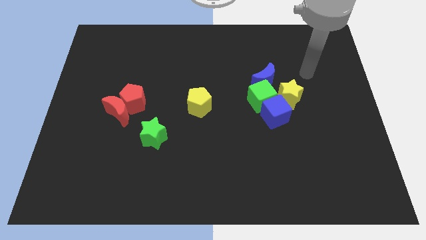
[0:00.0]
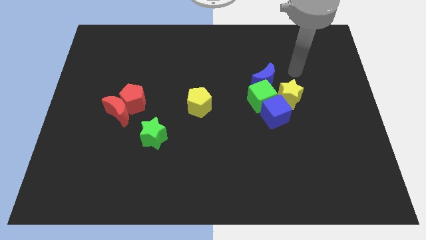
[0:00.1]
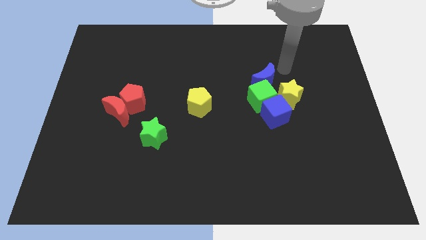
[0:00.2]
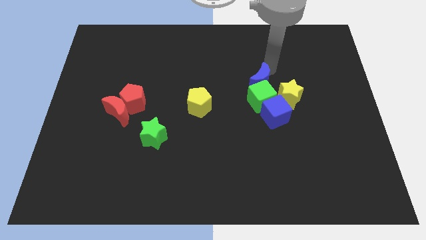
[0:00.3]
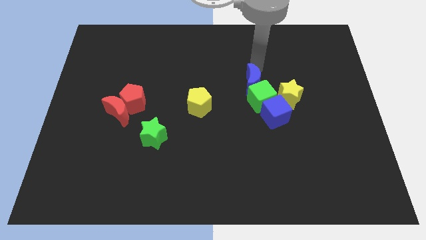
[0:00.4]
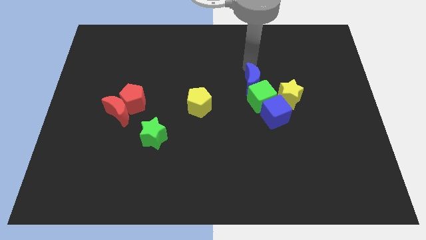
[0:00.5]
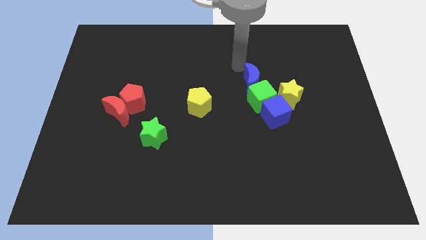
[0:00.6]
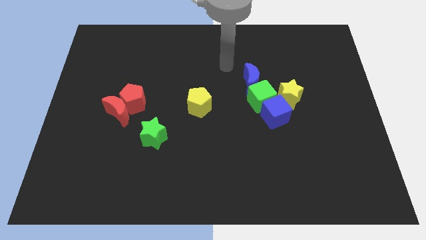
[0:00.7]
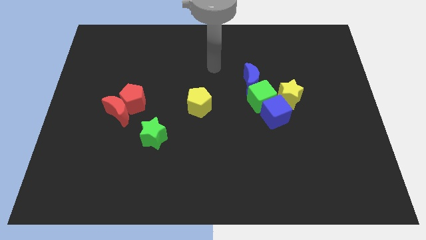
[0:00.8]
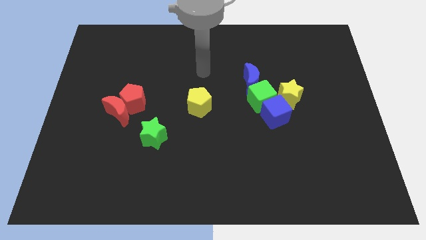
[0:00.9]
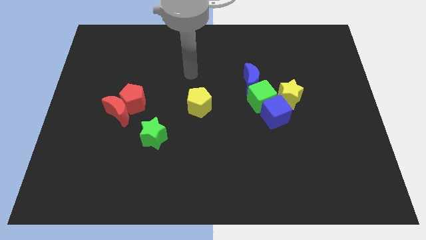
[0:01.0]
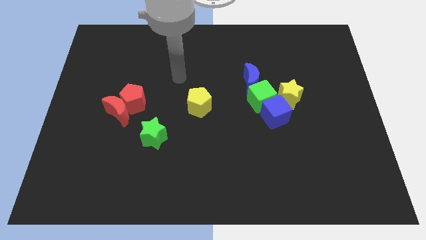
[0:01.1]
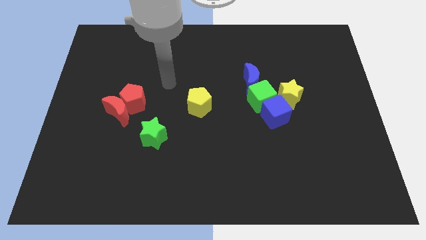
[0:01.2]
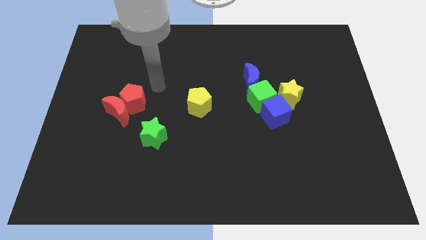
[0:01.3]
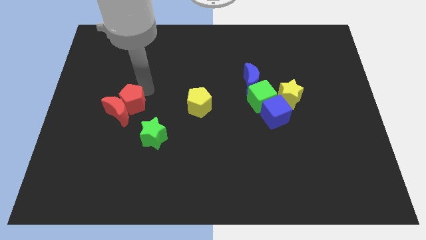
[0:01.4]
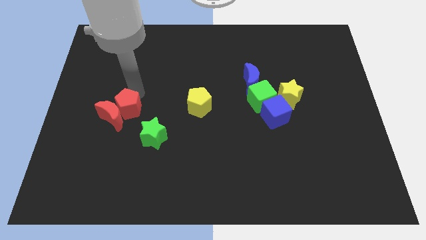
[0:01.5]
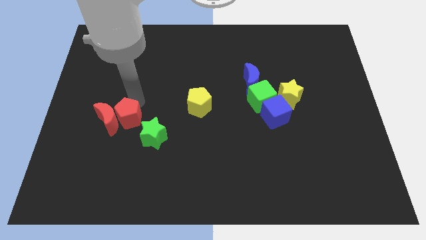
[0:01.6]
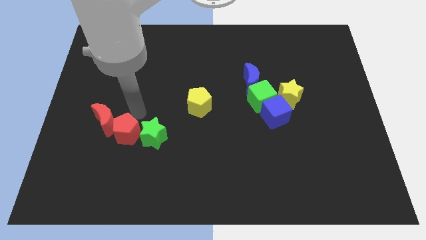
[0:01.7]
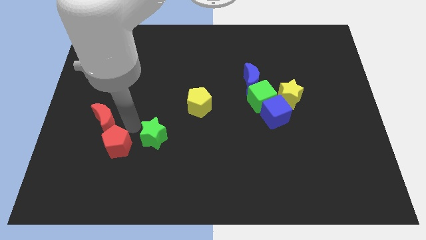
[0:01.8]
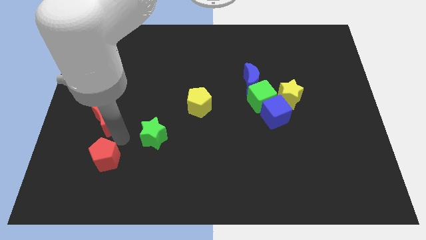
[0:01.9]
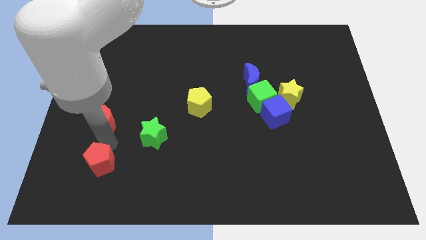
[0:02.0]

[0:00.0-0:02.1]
move the red moon away from the red pentagon

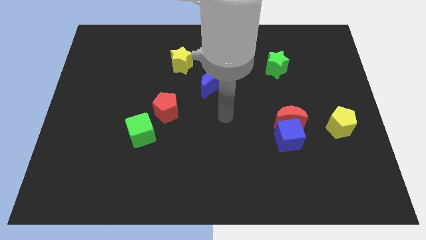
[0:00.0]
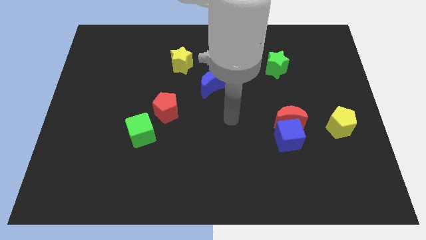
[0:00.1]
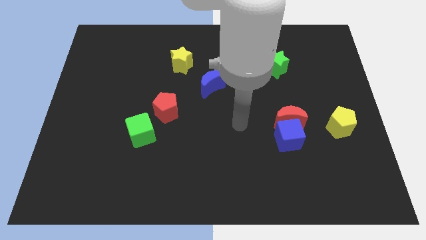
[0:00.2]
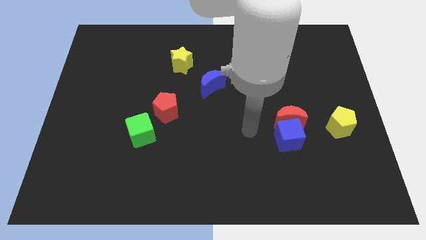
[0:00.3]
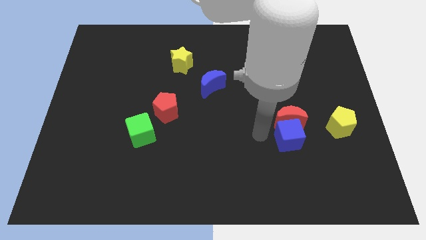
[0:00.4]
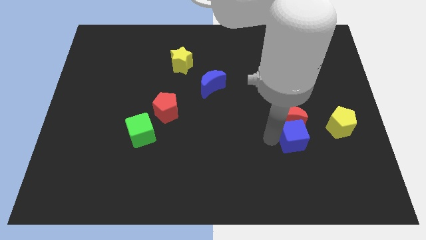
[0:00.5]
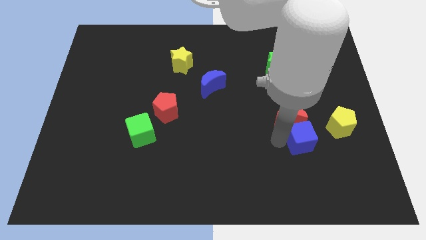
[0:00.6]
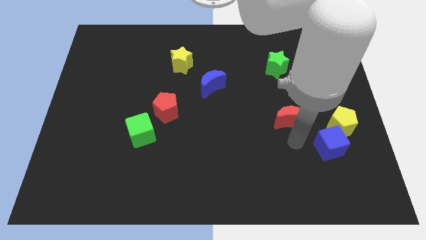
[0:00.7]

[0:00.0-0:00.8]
pull the red moon apart from the blue cube

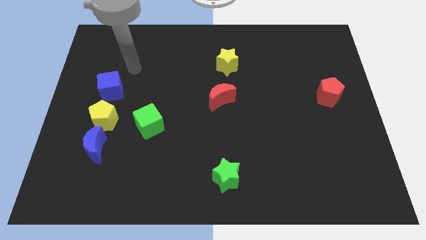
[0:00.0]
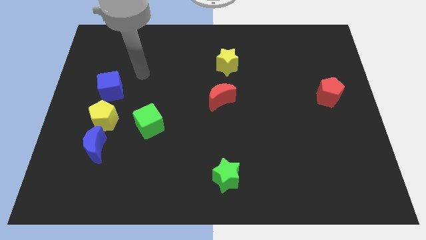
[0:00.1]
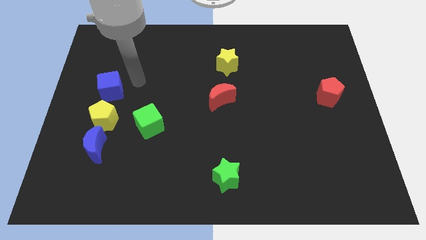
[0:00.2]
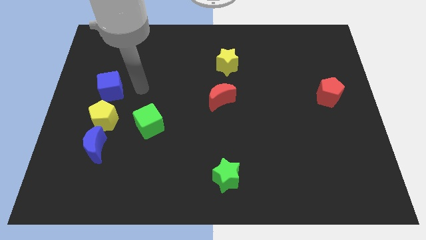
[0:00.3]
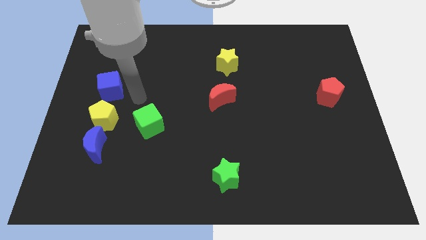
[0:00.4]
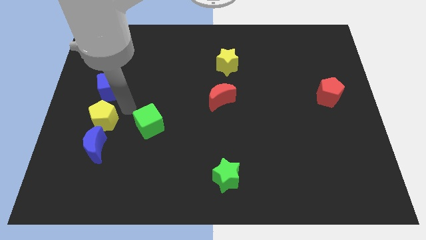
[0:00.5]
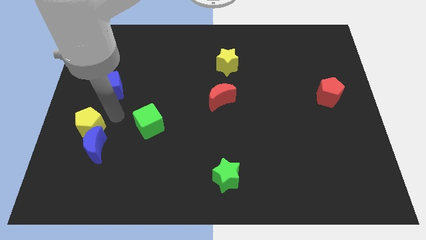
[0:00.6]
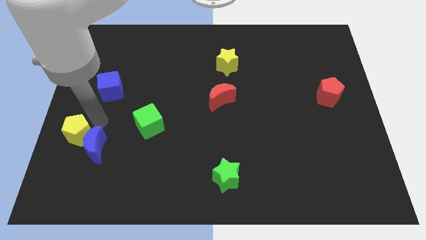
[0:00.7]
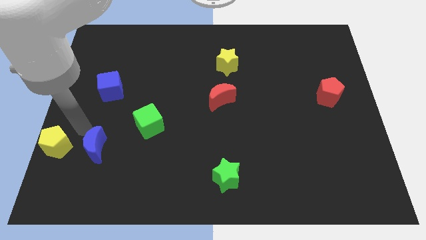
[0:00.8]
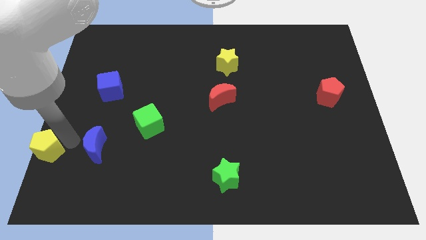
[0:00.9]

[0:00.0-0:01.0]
separate the blue moon from the yellow pentagon

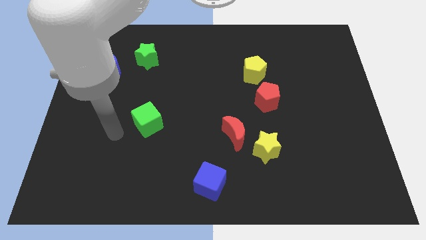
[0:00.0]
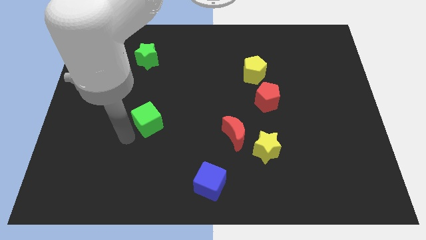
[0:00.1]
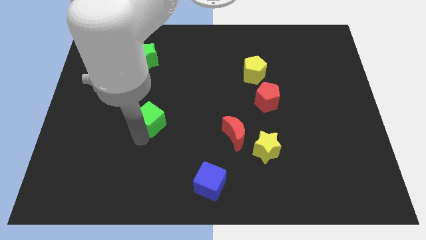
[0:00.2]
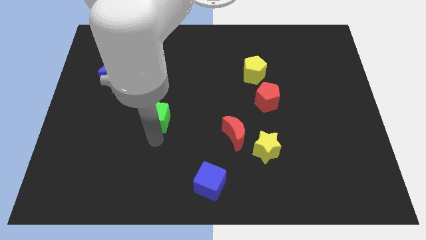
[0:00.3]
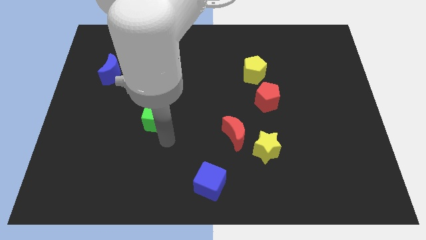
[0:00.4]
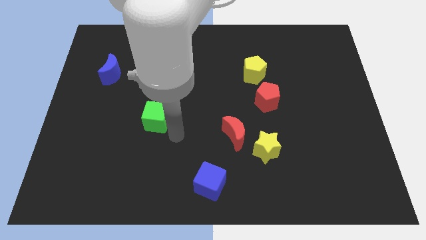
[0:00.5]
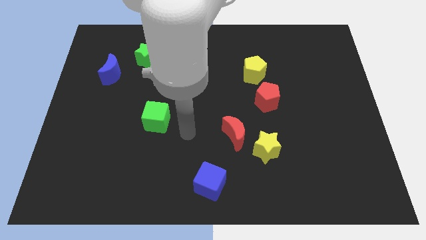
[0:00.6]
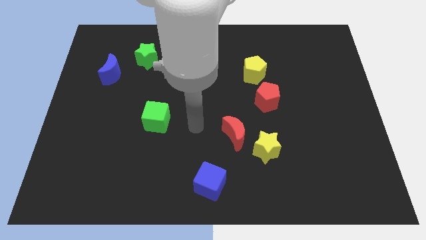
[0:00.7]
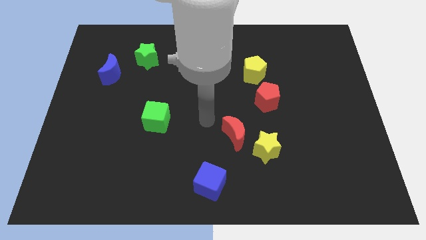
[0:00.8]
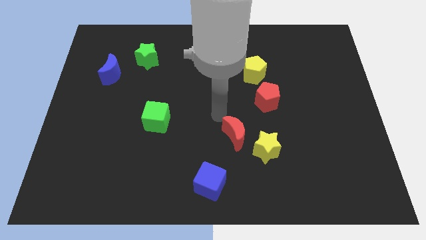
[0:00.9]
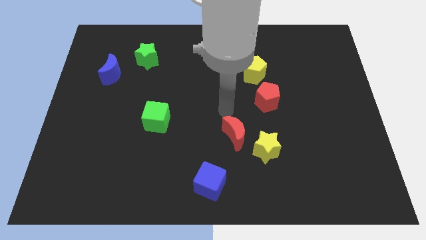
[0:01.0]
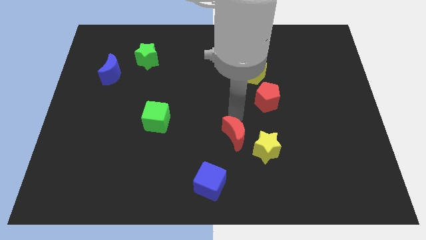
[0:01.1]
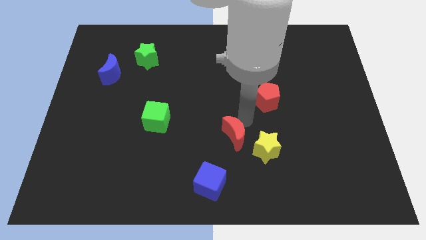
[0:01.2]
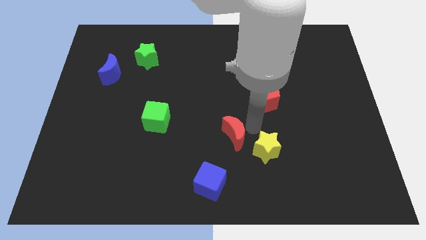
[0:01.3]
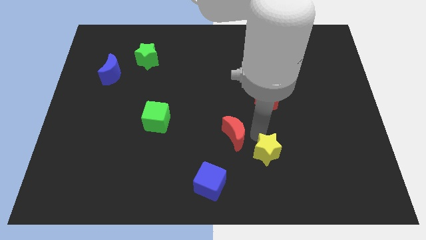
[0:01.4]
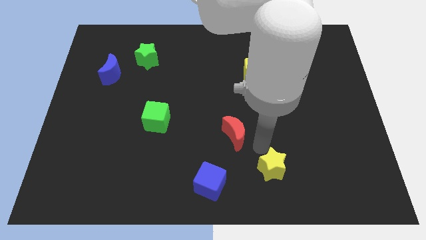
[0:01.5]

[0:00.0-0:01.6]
move the red moon away from the yellow star

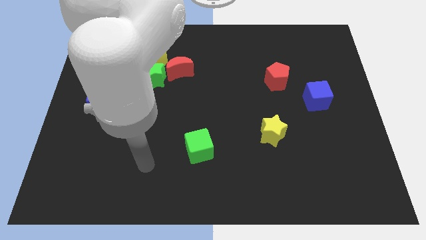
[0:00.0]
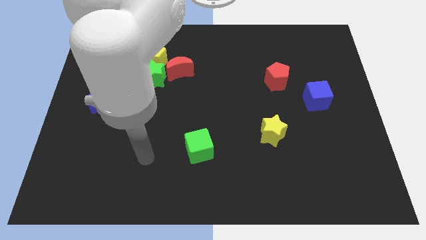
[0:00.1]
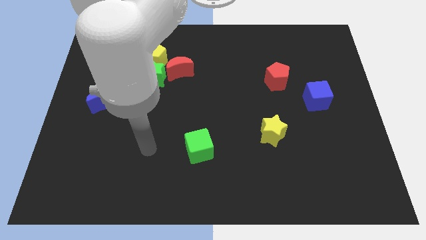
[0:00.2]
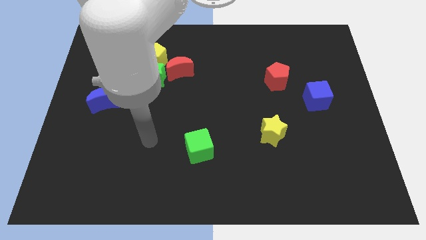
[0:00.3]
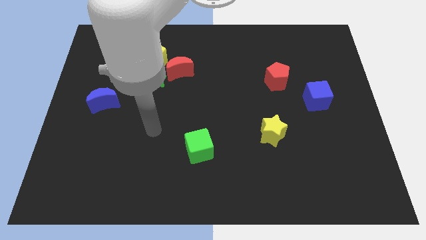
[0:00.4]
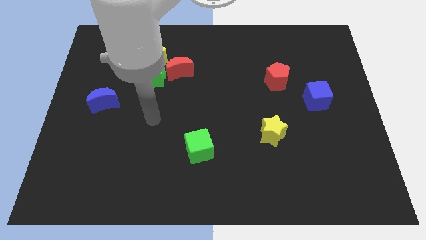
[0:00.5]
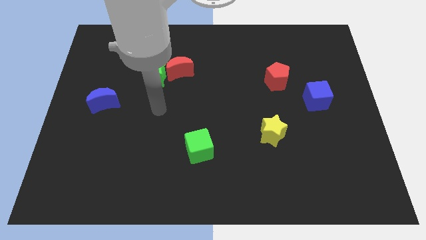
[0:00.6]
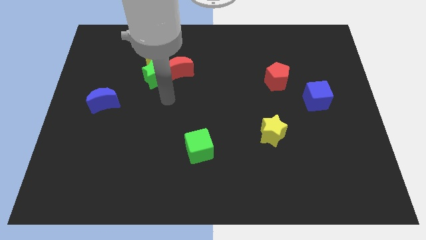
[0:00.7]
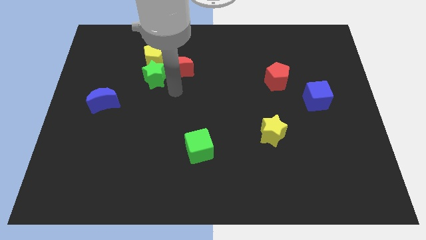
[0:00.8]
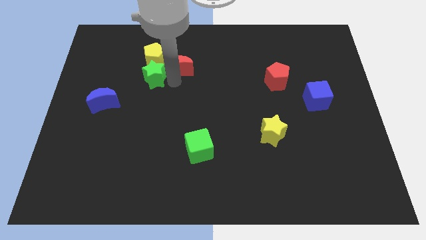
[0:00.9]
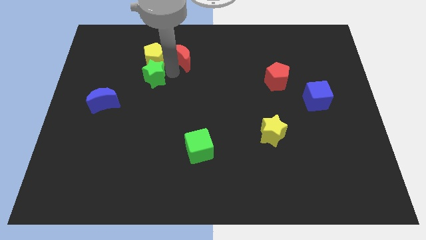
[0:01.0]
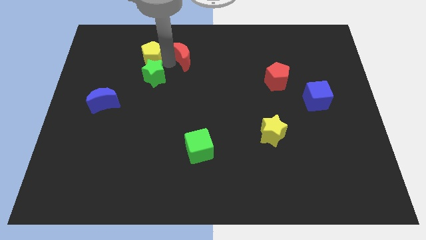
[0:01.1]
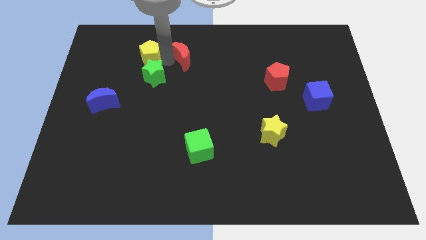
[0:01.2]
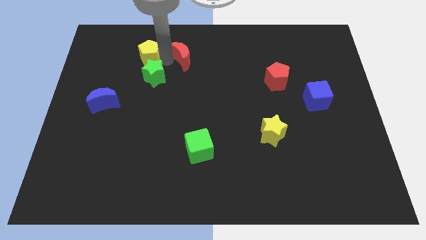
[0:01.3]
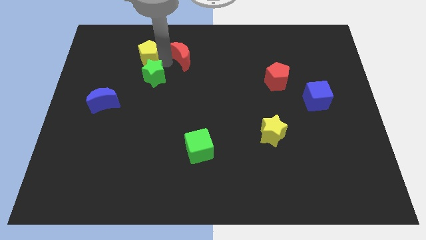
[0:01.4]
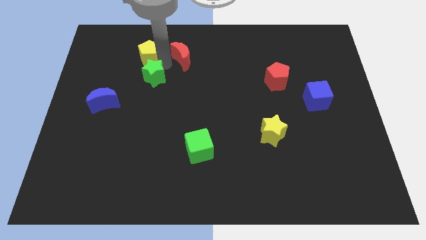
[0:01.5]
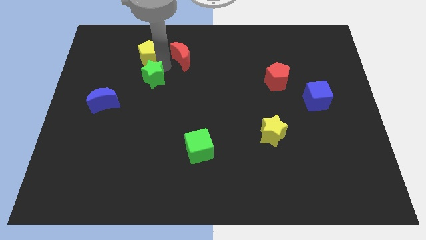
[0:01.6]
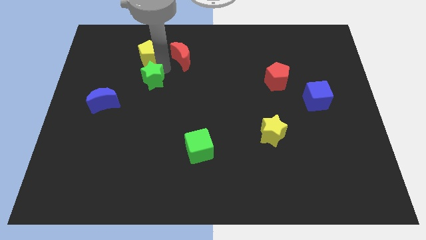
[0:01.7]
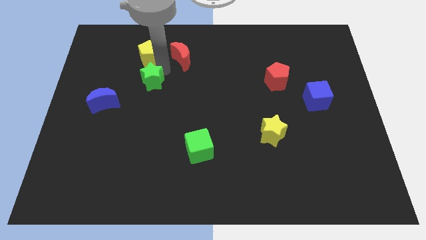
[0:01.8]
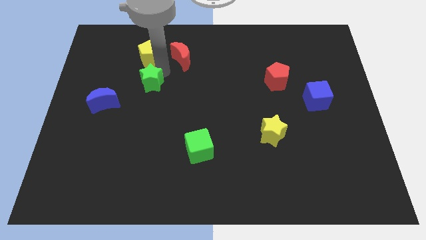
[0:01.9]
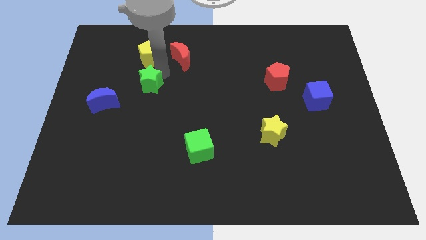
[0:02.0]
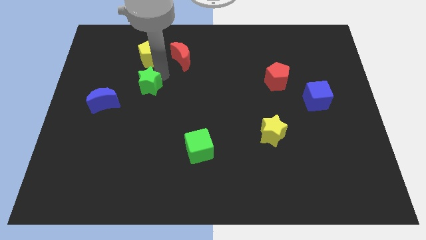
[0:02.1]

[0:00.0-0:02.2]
separate the green star from the yellow pentagon and red moon

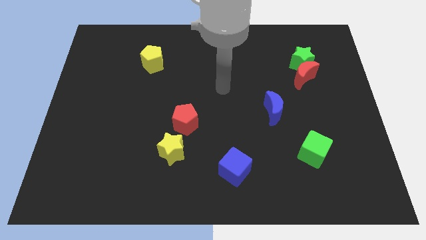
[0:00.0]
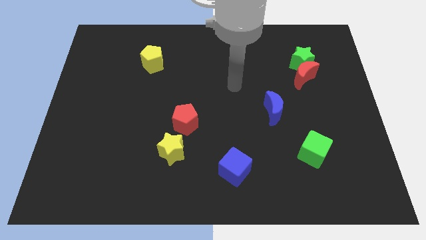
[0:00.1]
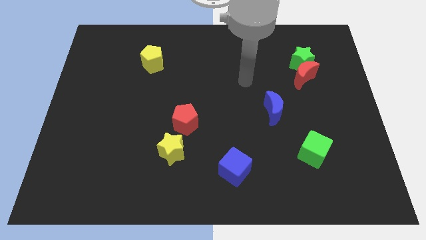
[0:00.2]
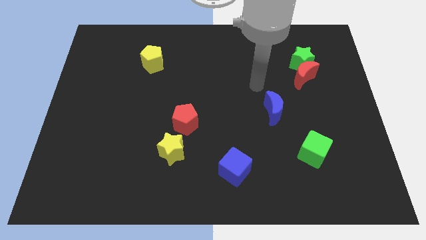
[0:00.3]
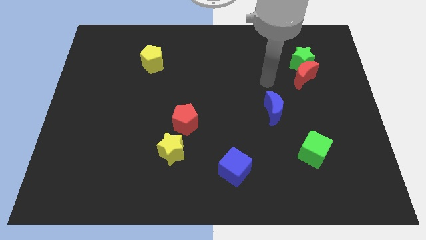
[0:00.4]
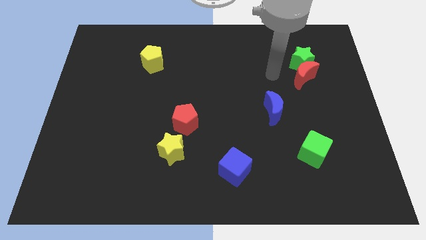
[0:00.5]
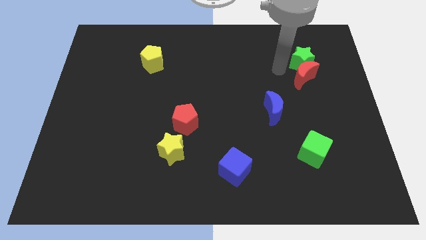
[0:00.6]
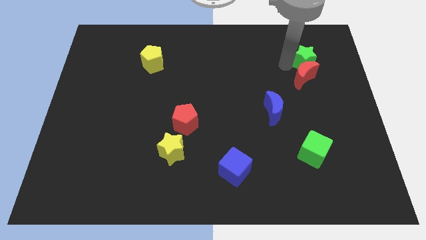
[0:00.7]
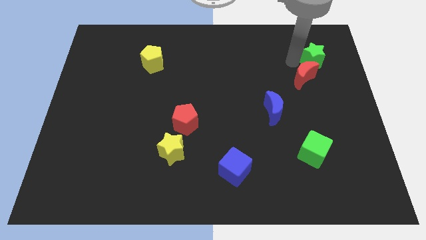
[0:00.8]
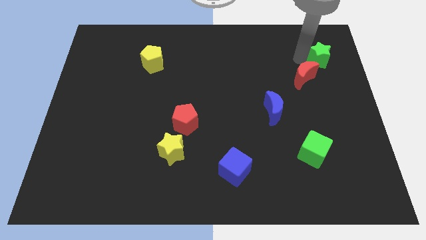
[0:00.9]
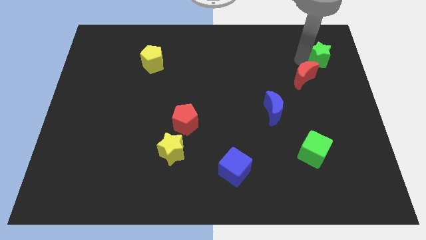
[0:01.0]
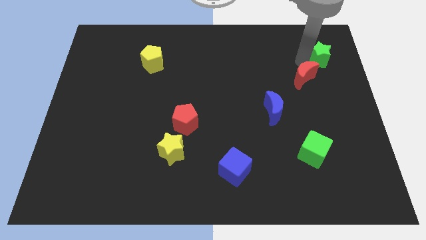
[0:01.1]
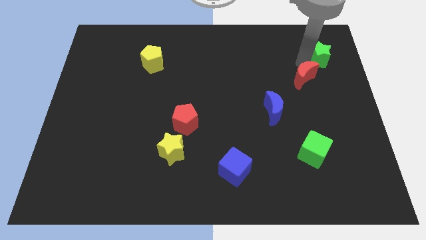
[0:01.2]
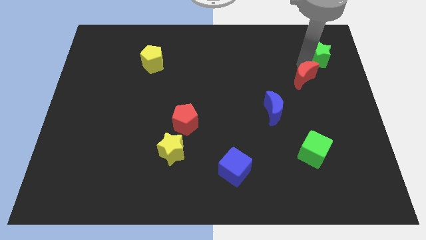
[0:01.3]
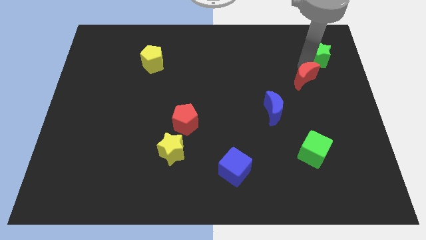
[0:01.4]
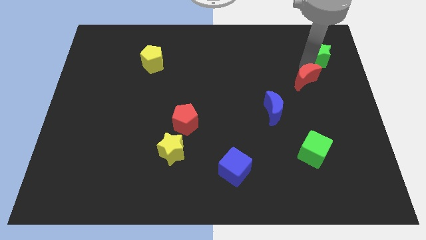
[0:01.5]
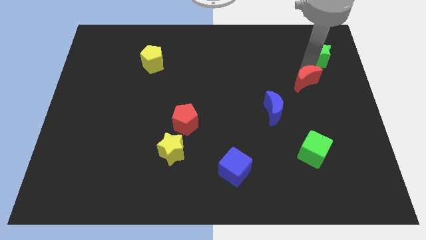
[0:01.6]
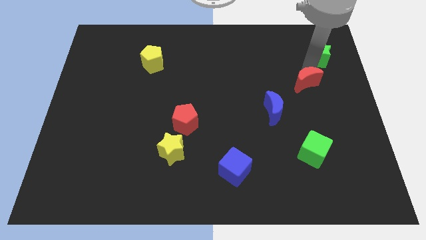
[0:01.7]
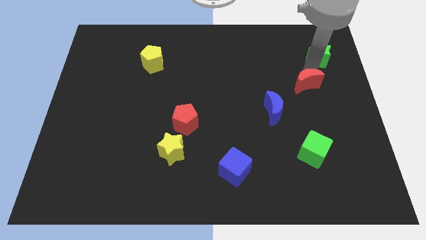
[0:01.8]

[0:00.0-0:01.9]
pull the red moon apart from the green star
